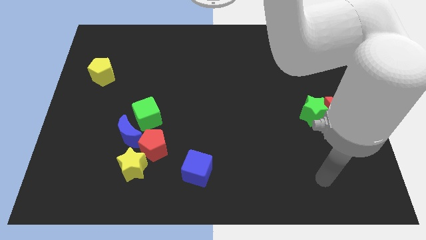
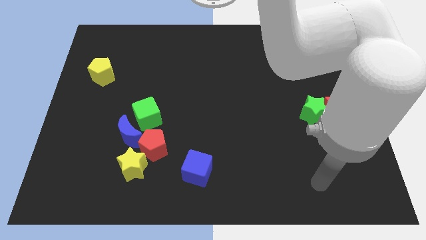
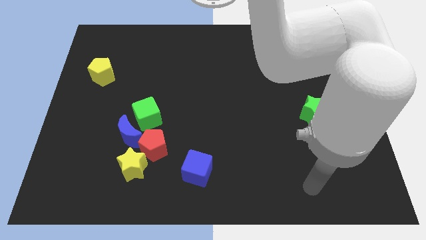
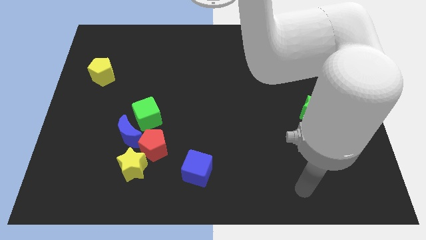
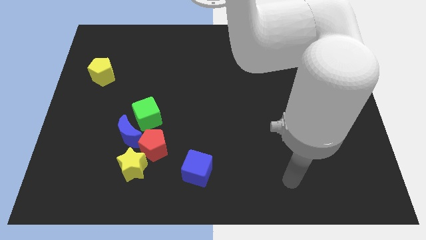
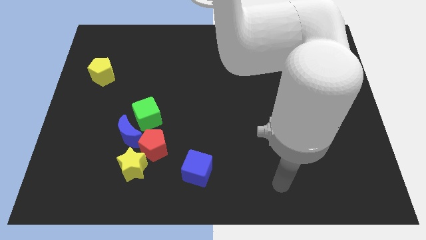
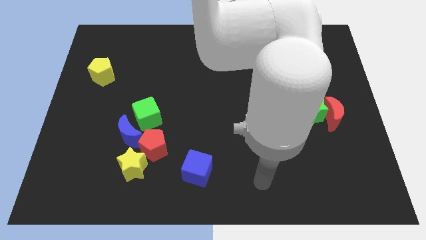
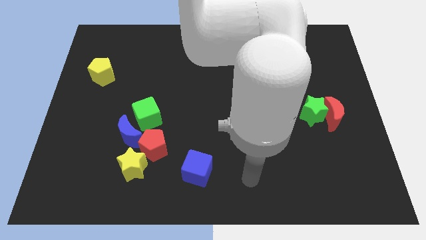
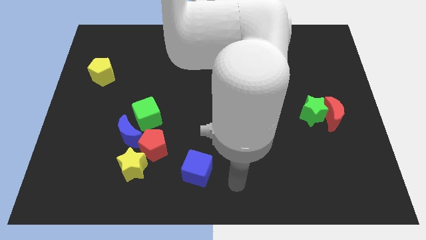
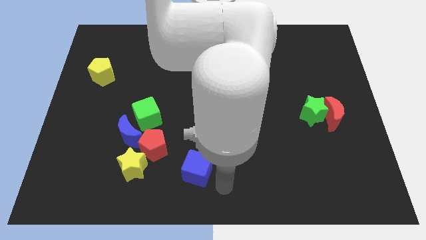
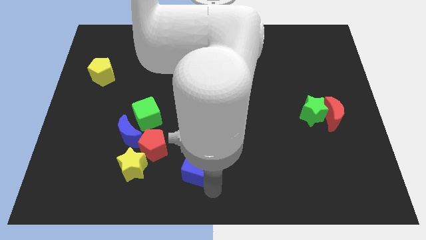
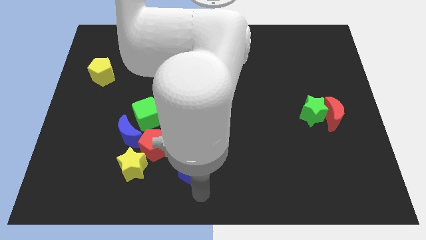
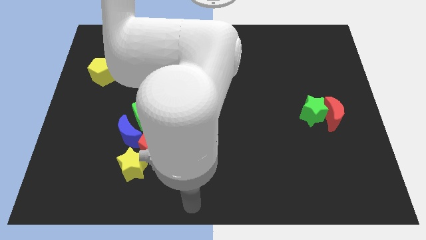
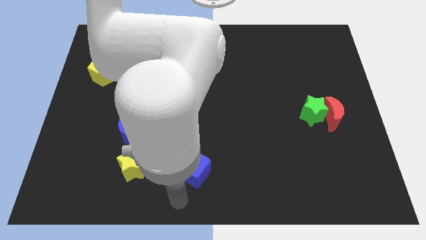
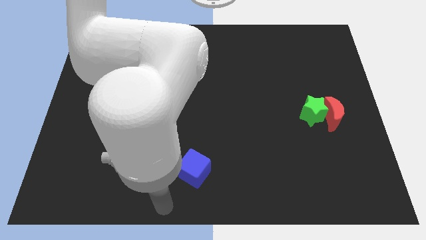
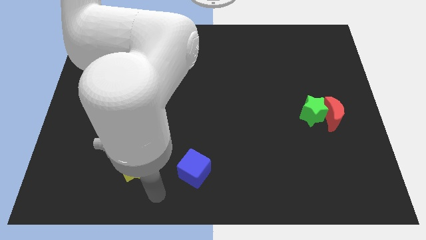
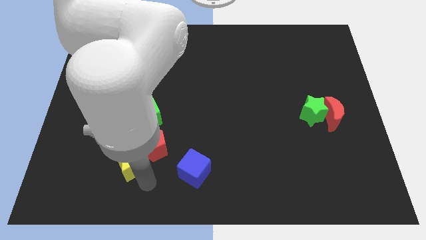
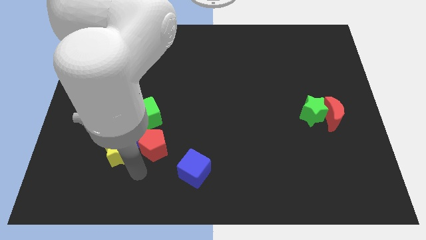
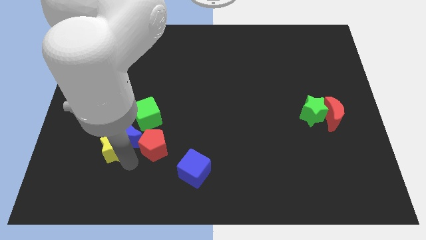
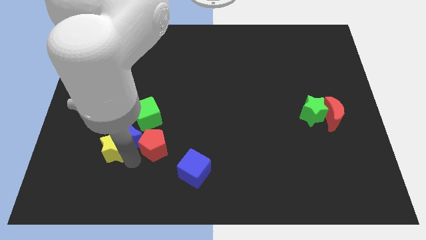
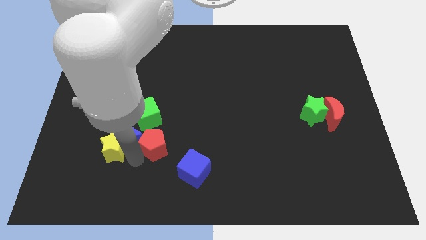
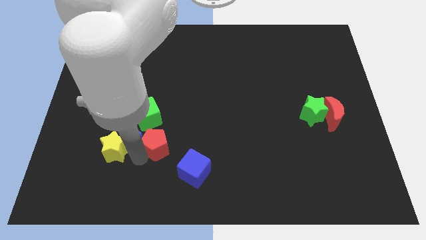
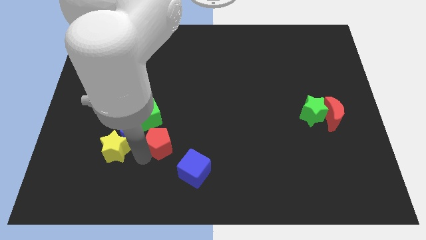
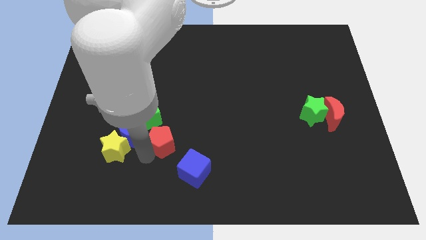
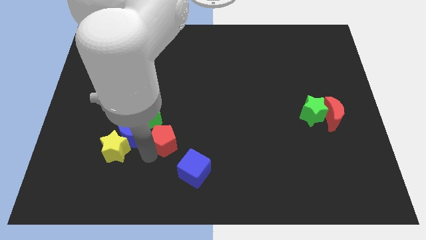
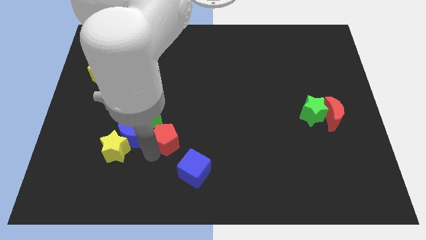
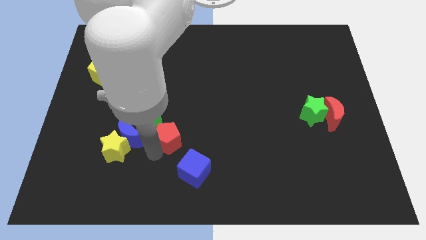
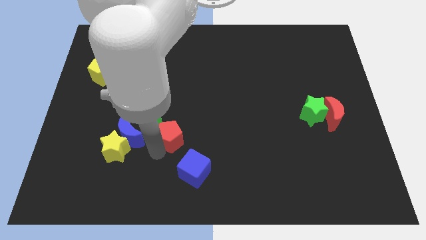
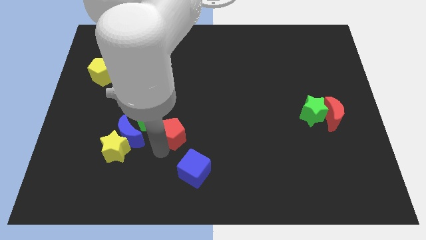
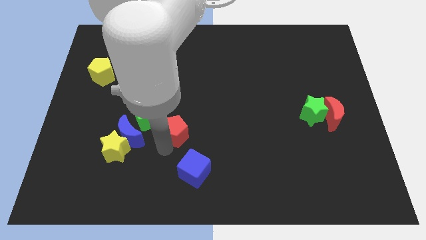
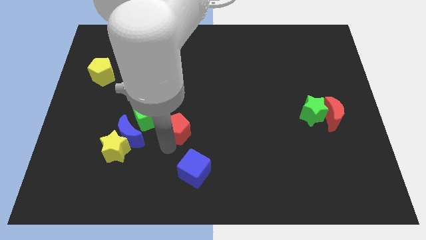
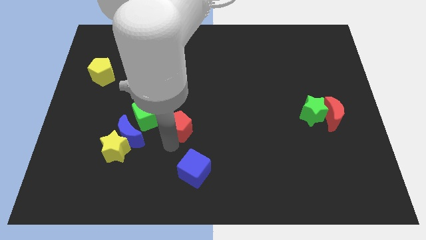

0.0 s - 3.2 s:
slide the red pentagon slightly up and then right

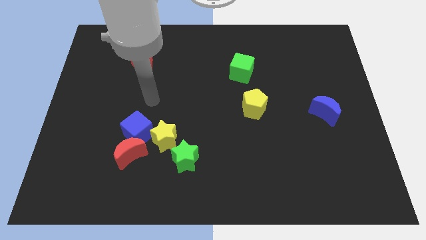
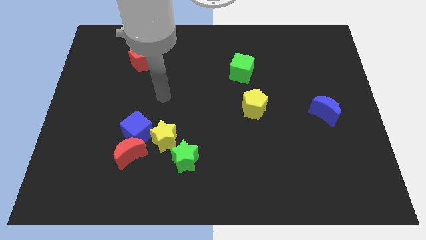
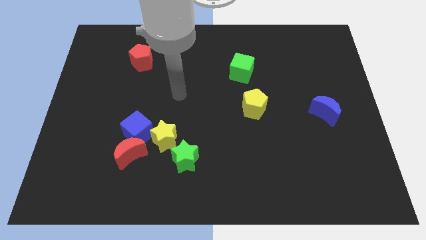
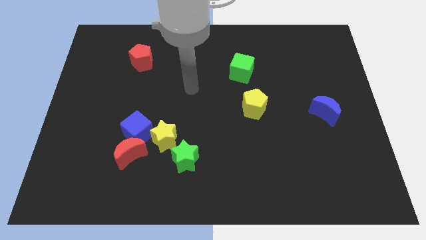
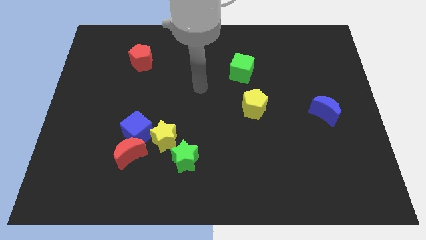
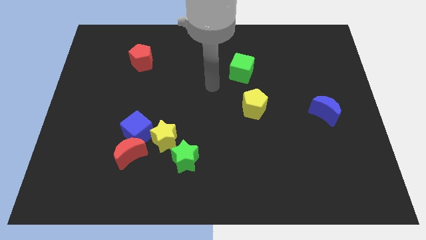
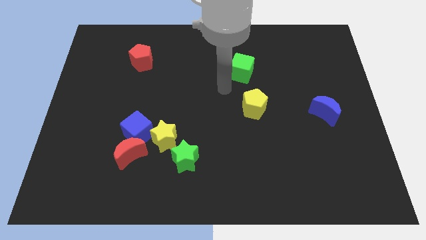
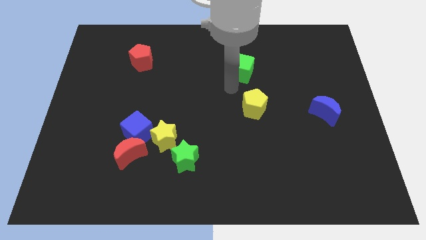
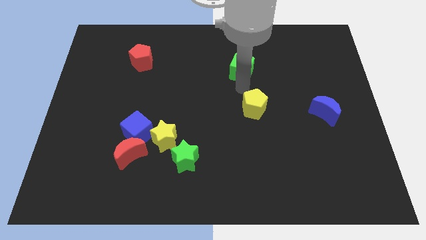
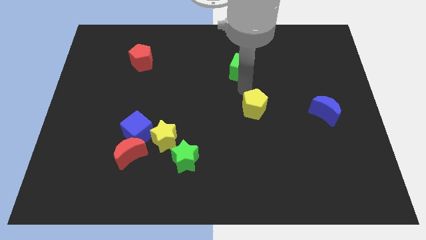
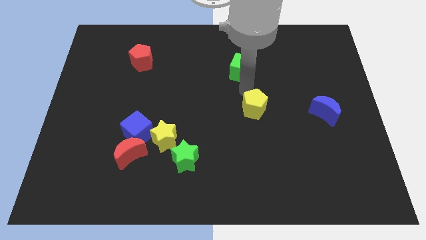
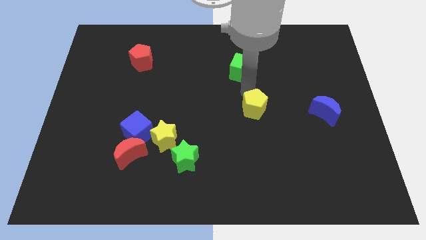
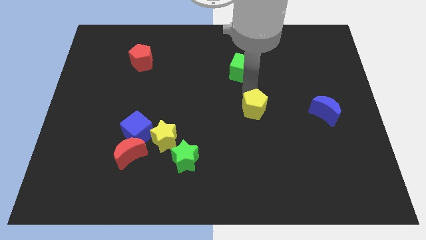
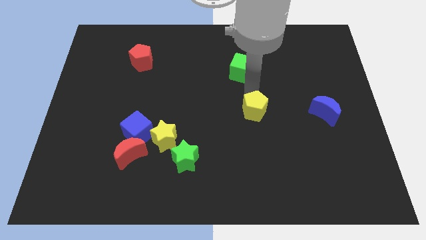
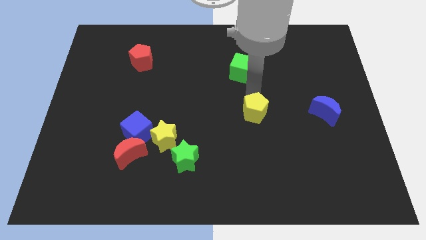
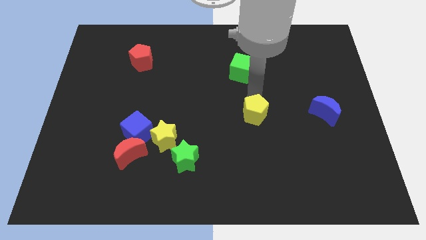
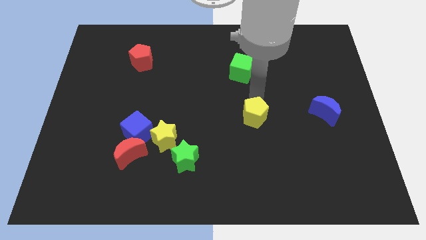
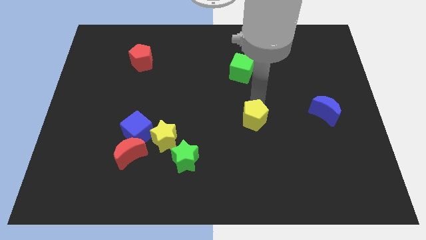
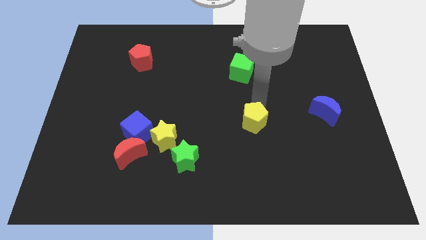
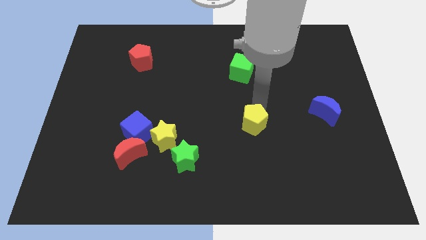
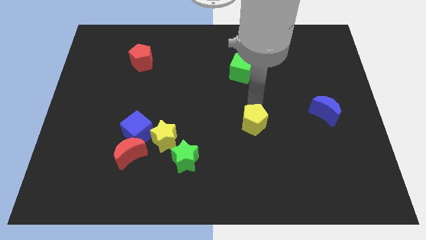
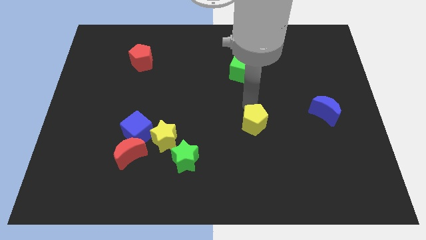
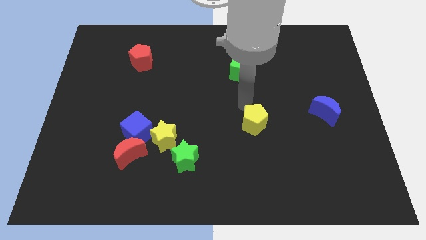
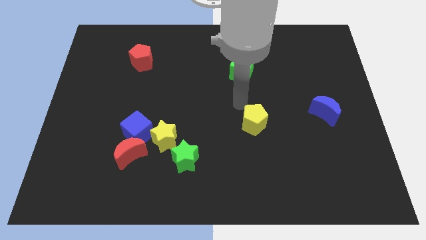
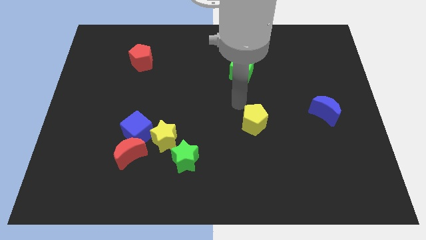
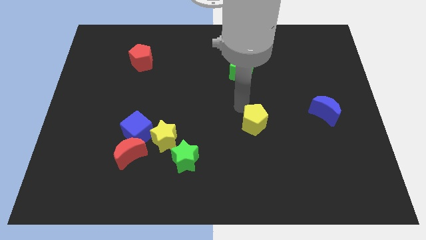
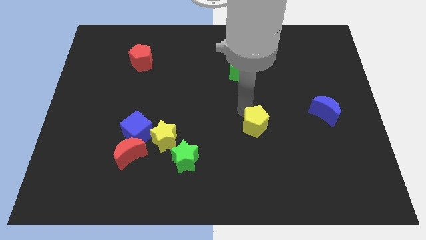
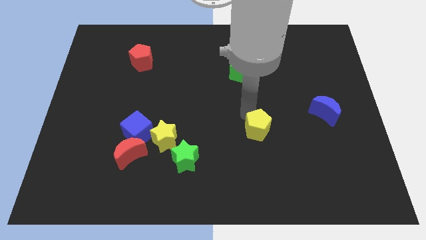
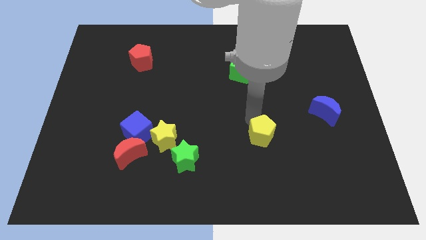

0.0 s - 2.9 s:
slightly slide the yellow pentagon downwards

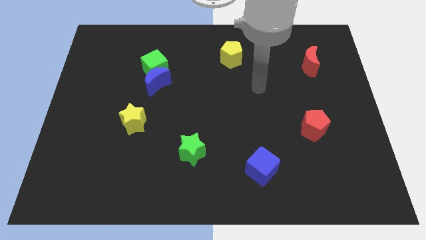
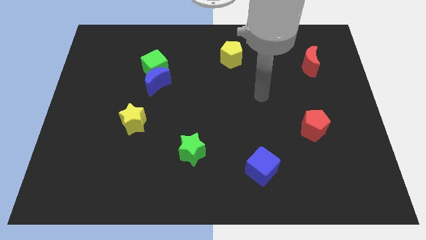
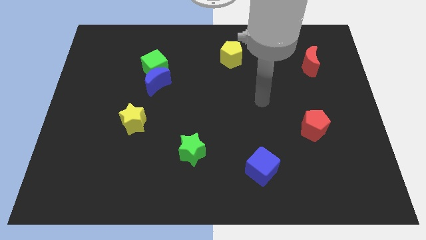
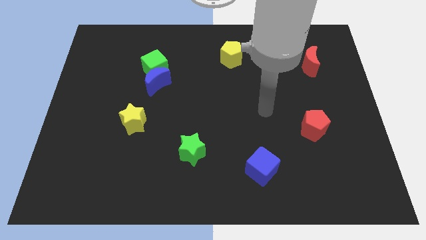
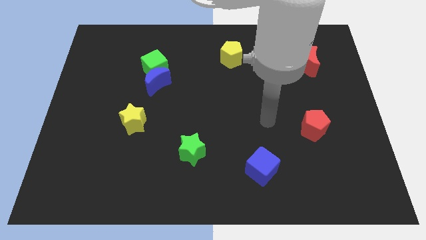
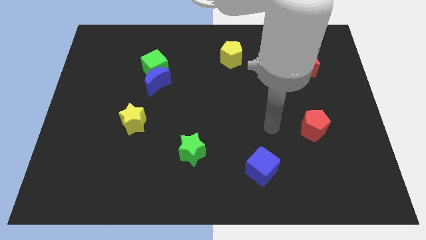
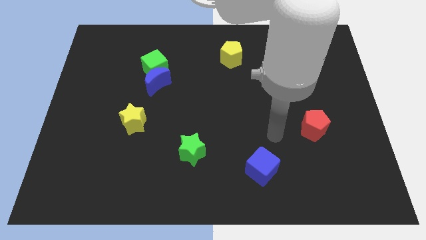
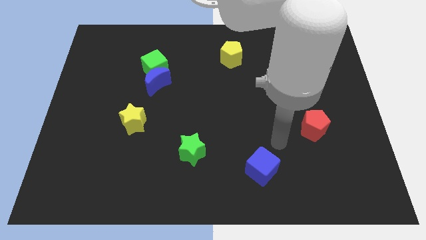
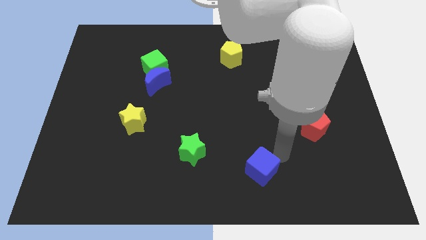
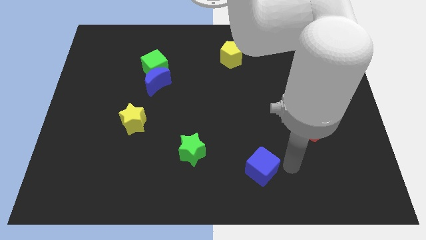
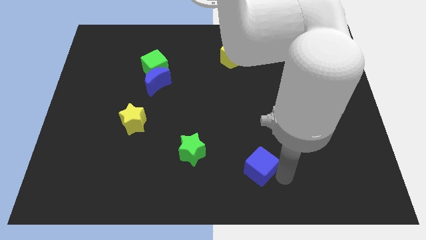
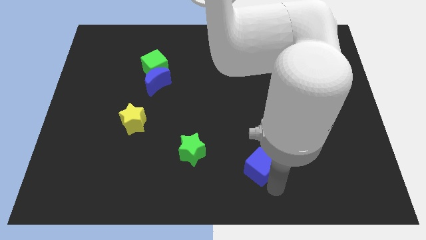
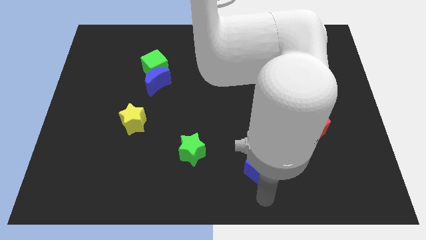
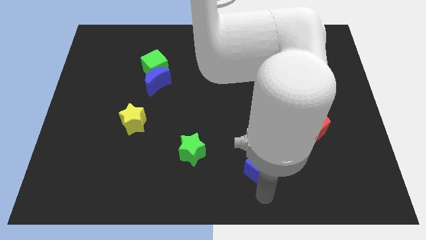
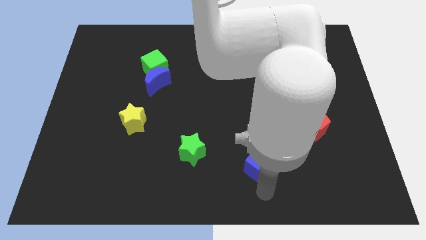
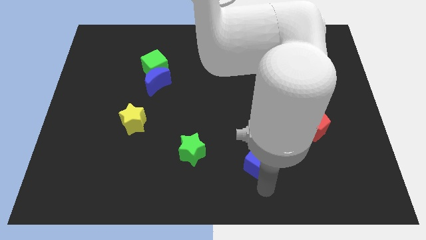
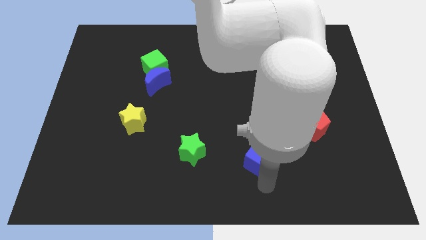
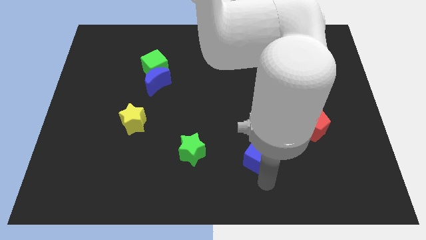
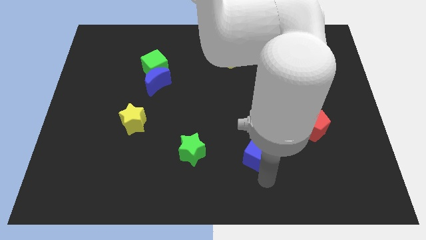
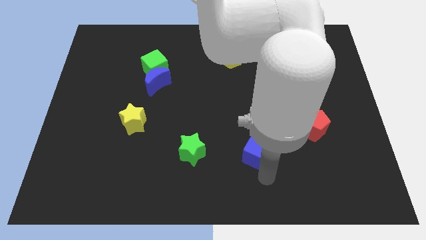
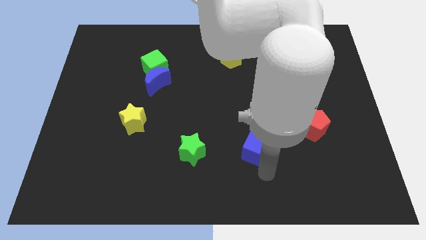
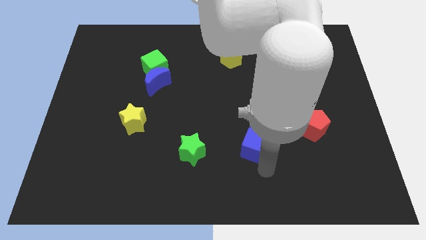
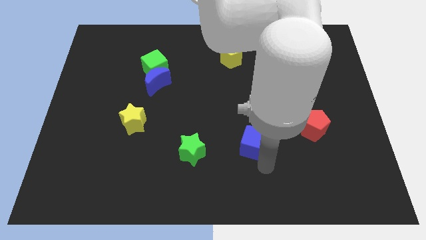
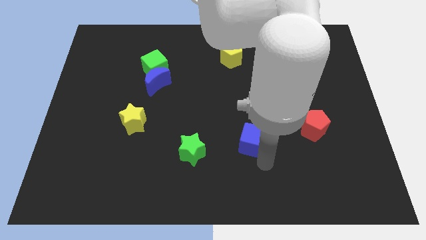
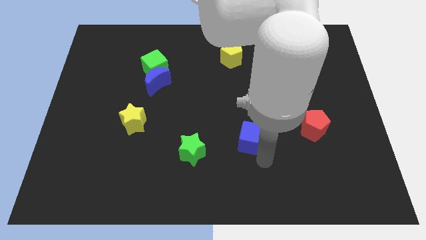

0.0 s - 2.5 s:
slightly push the blue cube upwards
